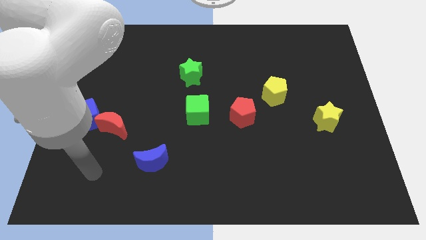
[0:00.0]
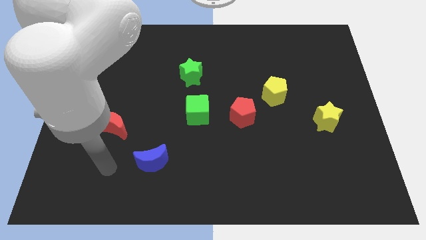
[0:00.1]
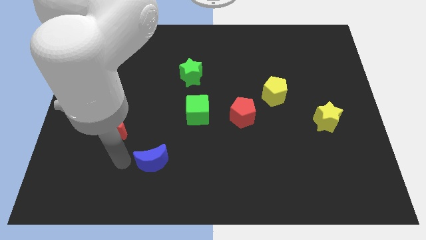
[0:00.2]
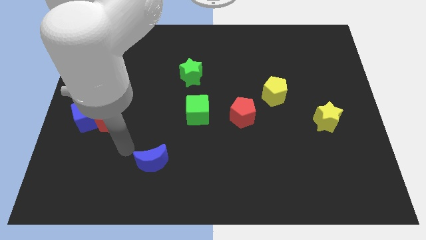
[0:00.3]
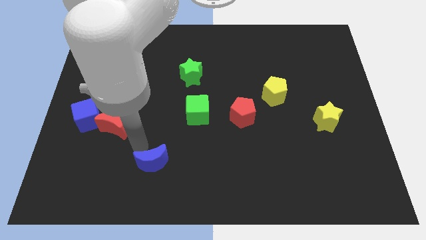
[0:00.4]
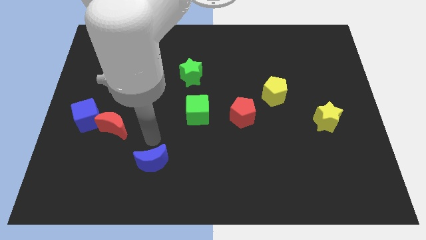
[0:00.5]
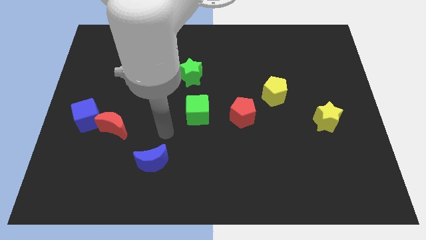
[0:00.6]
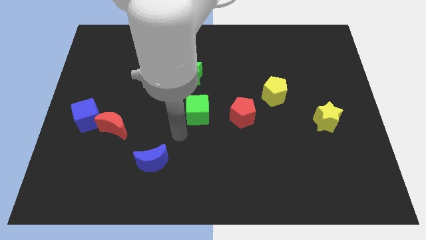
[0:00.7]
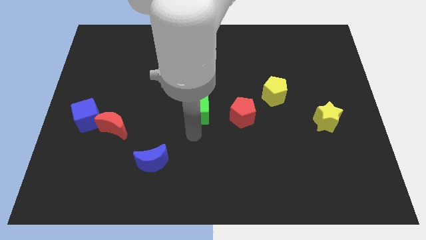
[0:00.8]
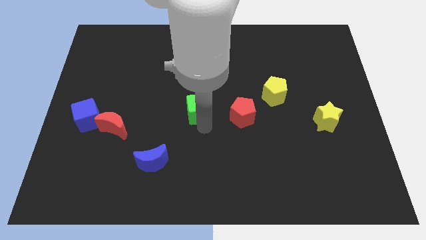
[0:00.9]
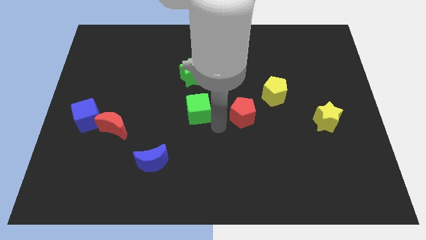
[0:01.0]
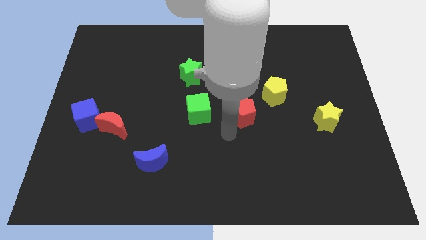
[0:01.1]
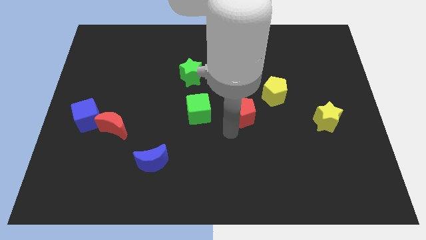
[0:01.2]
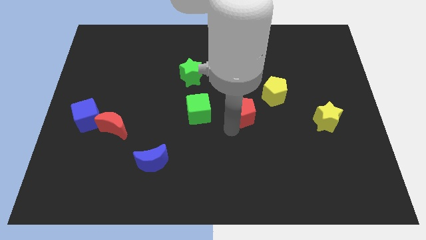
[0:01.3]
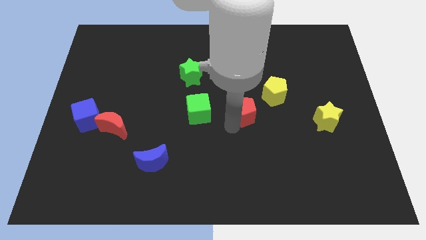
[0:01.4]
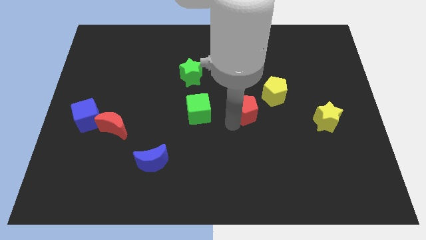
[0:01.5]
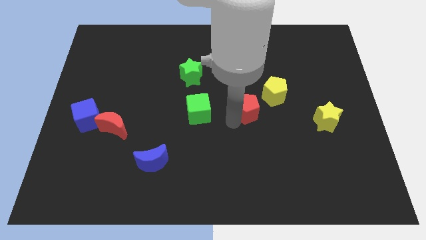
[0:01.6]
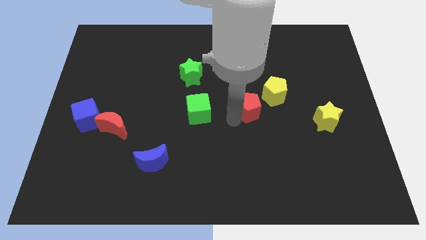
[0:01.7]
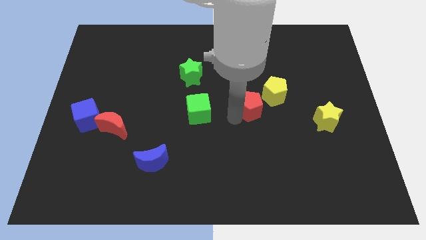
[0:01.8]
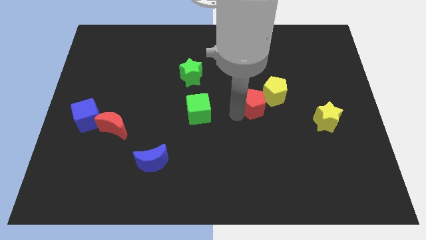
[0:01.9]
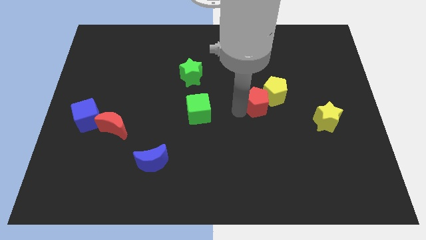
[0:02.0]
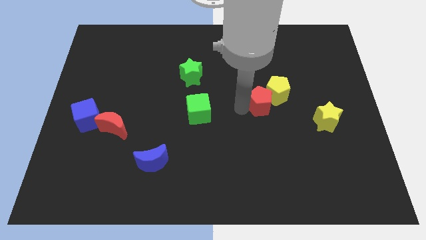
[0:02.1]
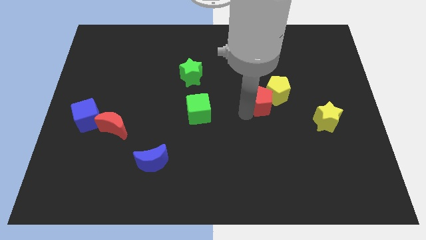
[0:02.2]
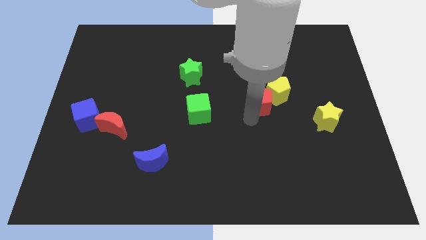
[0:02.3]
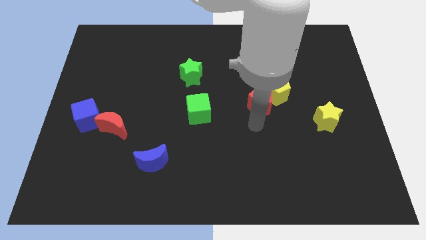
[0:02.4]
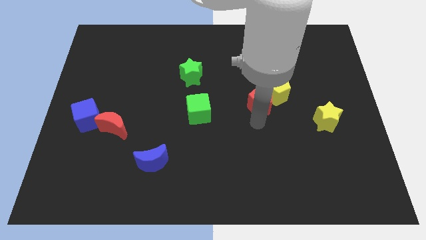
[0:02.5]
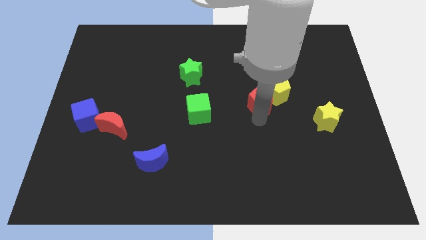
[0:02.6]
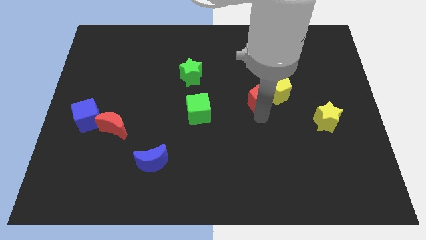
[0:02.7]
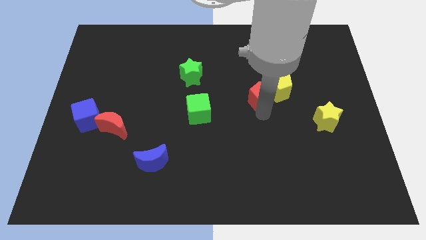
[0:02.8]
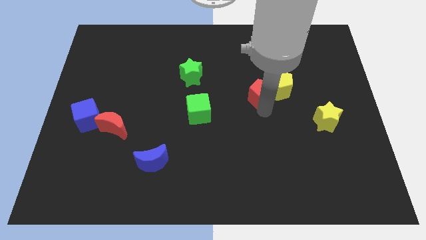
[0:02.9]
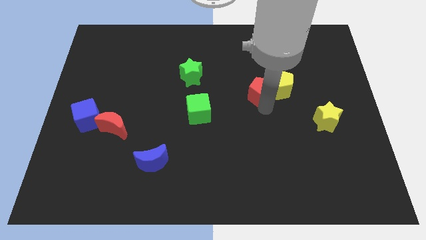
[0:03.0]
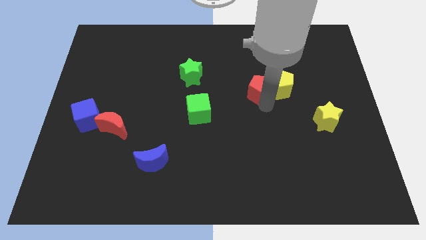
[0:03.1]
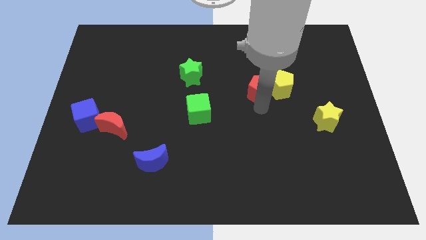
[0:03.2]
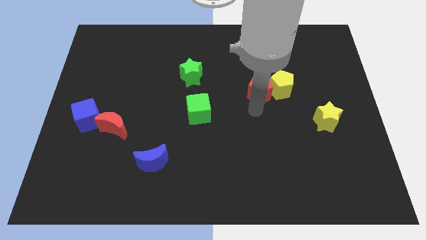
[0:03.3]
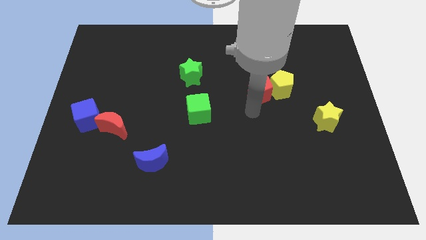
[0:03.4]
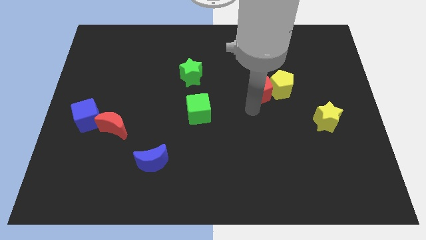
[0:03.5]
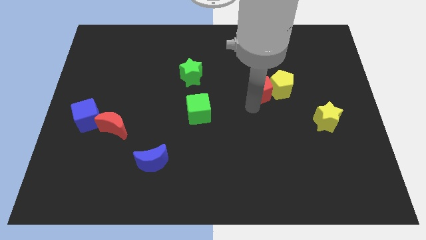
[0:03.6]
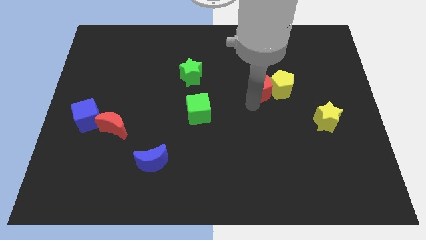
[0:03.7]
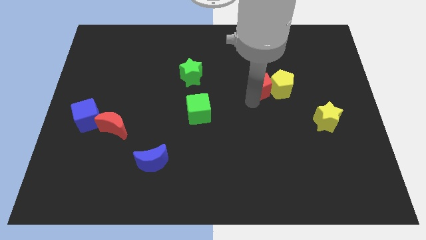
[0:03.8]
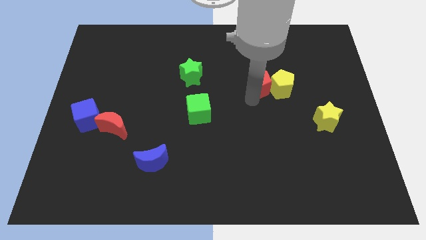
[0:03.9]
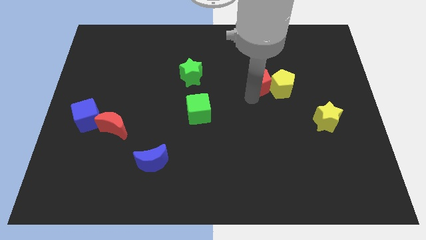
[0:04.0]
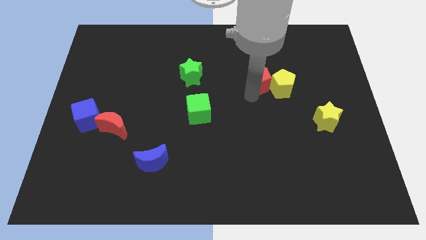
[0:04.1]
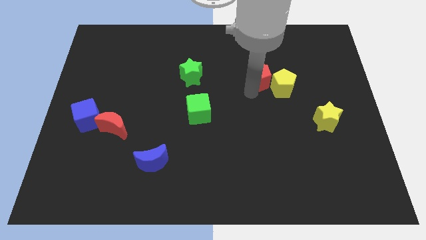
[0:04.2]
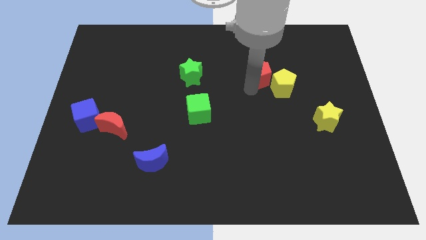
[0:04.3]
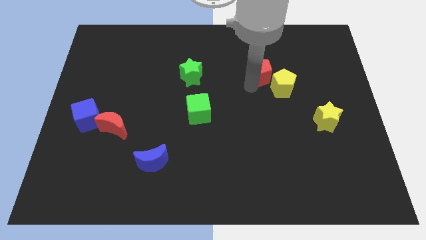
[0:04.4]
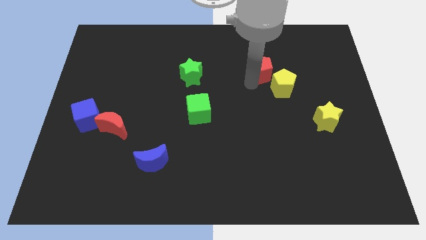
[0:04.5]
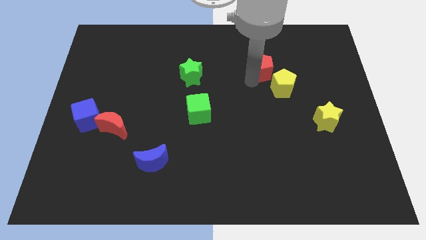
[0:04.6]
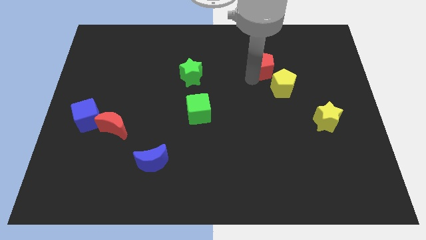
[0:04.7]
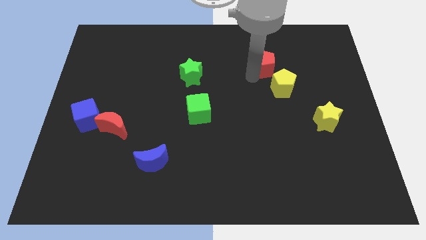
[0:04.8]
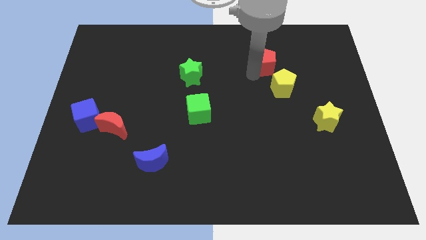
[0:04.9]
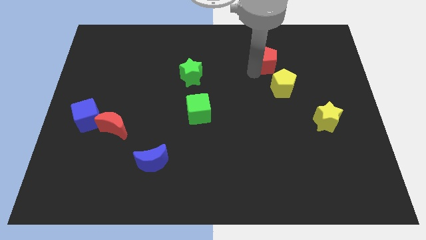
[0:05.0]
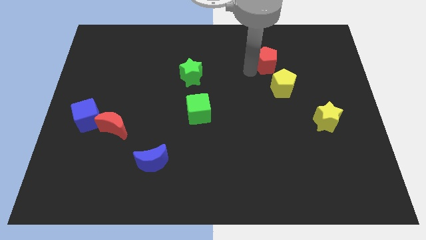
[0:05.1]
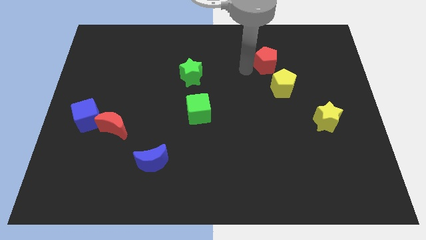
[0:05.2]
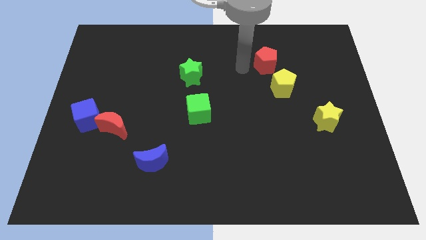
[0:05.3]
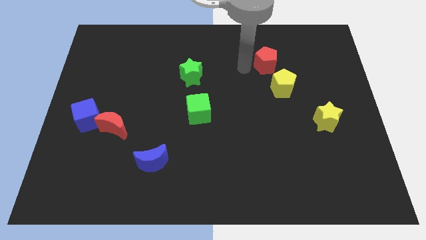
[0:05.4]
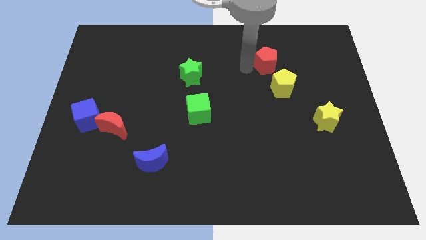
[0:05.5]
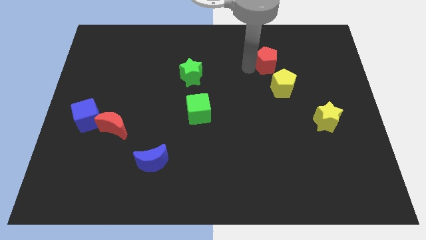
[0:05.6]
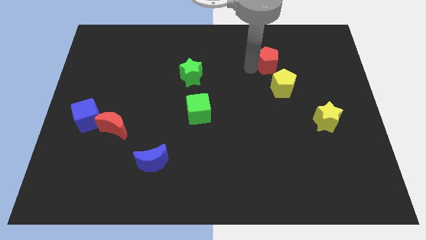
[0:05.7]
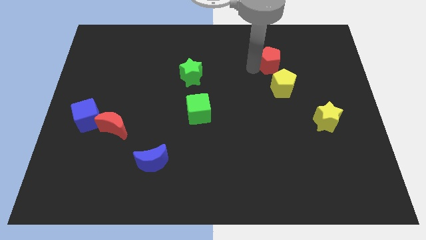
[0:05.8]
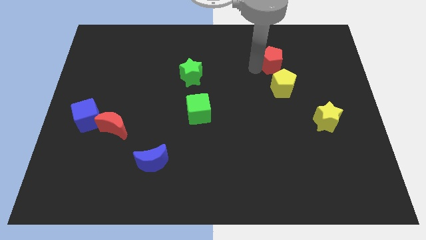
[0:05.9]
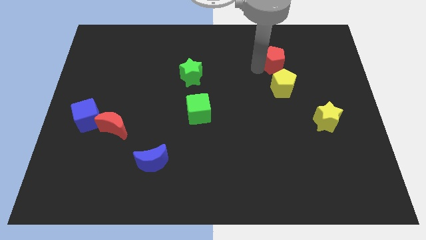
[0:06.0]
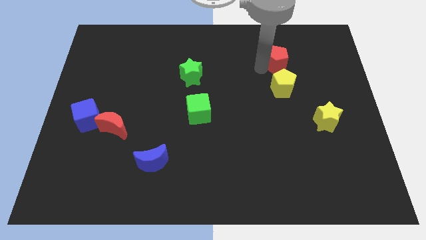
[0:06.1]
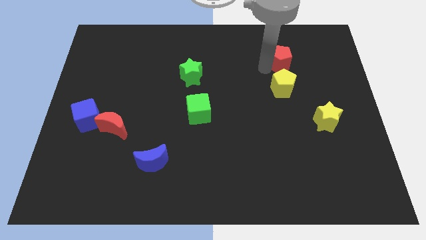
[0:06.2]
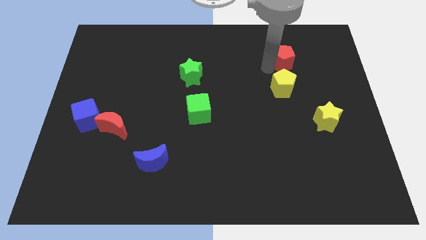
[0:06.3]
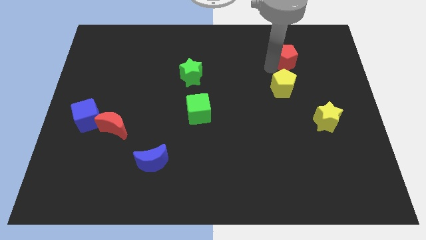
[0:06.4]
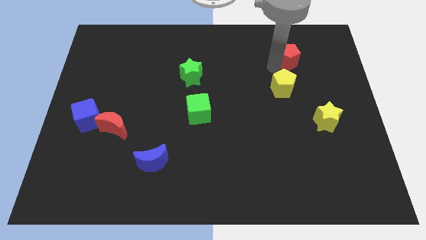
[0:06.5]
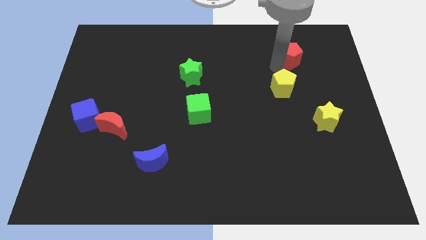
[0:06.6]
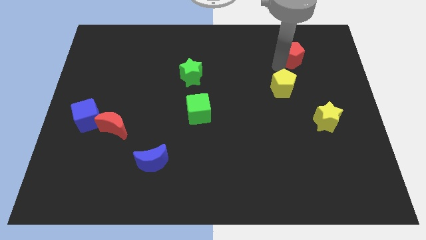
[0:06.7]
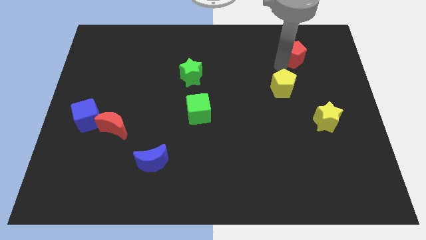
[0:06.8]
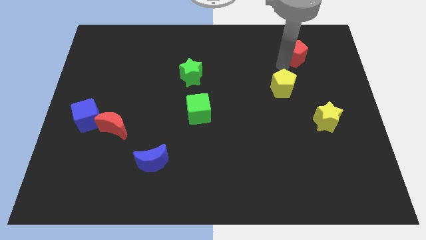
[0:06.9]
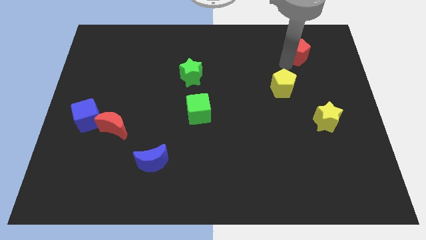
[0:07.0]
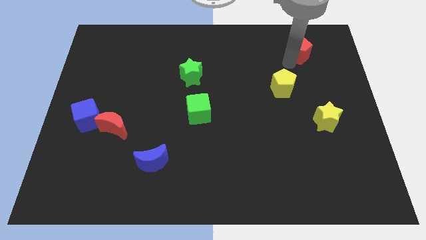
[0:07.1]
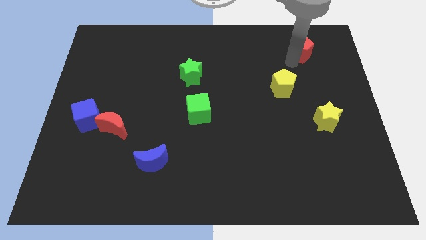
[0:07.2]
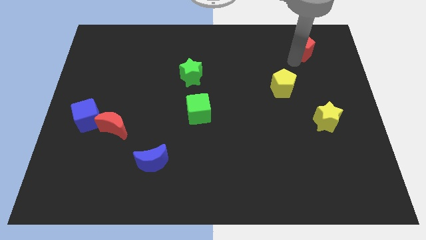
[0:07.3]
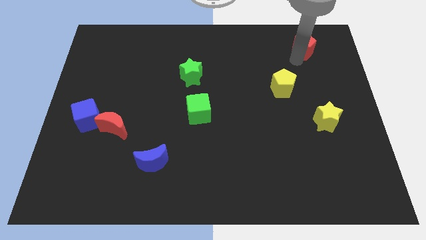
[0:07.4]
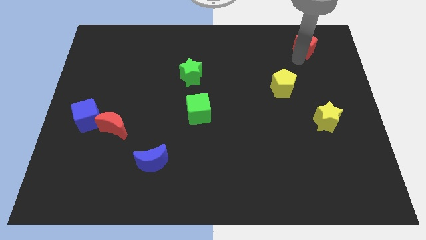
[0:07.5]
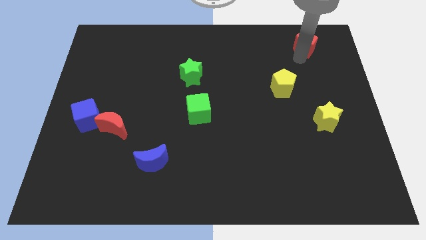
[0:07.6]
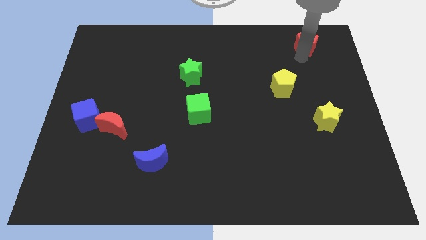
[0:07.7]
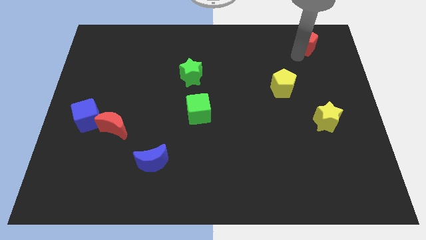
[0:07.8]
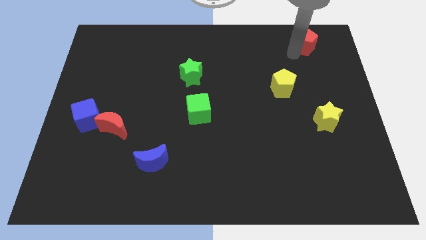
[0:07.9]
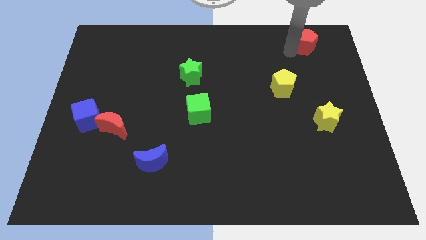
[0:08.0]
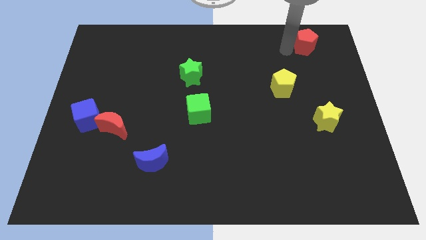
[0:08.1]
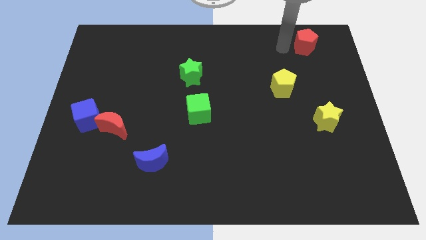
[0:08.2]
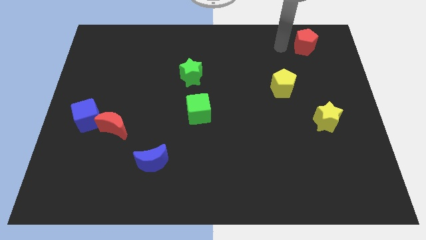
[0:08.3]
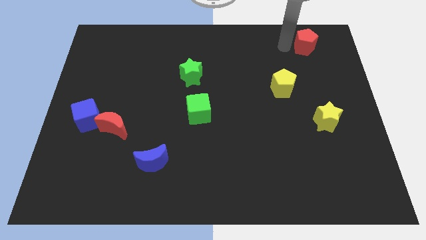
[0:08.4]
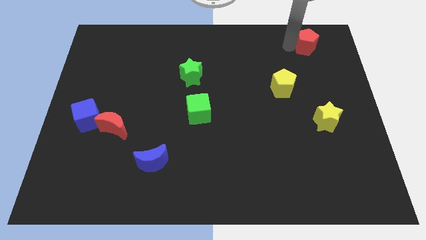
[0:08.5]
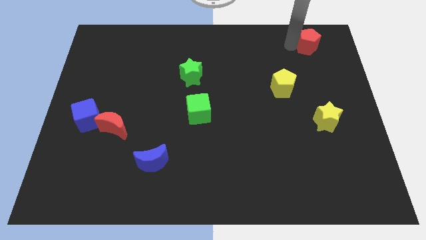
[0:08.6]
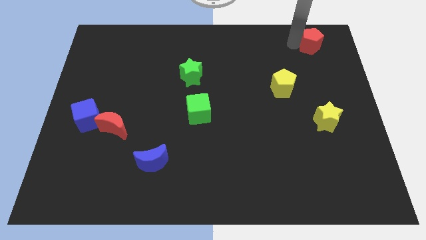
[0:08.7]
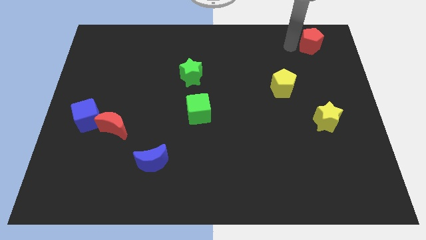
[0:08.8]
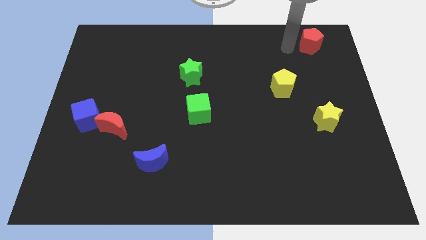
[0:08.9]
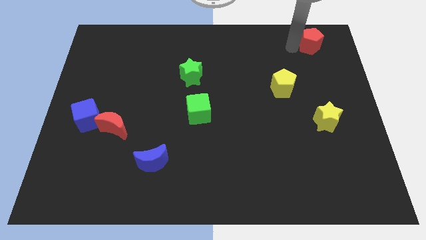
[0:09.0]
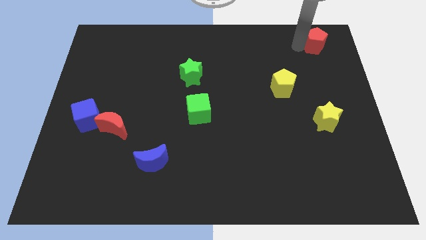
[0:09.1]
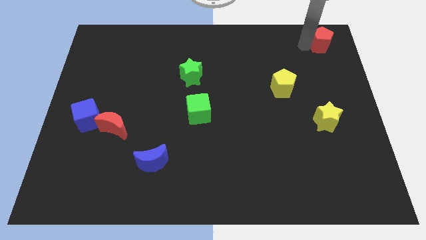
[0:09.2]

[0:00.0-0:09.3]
put the red pentagon to the top right of the board
